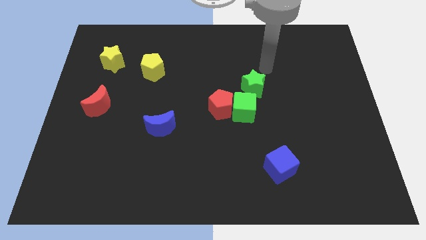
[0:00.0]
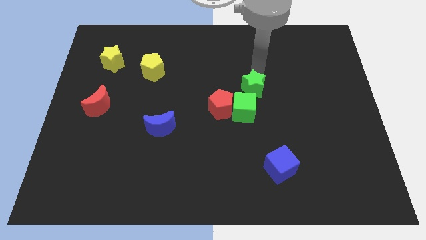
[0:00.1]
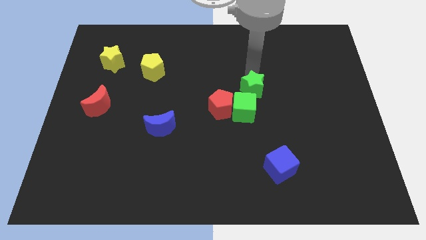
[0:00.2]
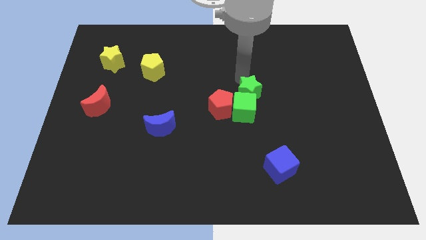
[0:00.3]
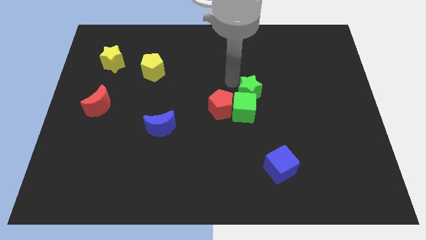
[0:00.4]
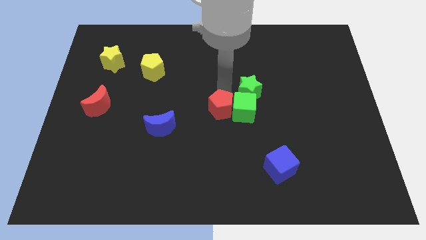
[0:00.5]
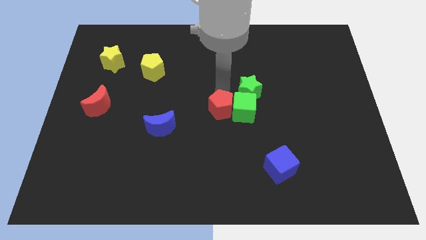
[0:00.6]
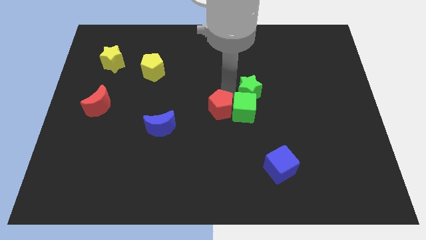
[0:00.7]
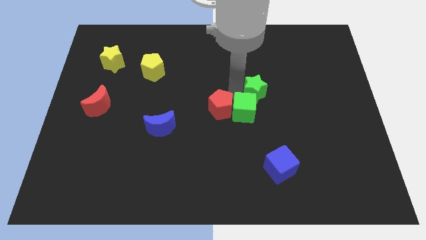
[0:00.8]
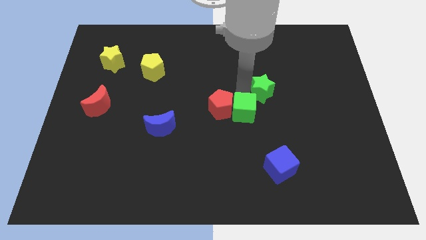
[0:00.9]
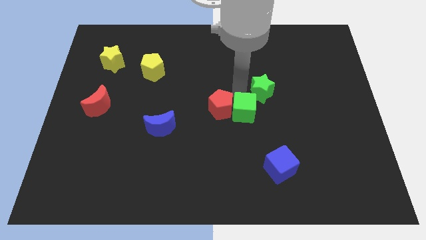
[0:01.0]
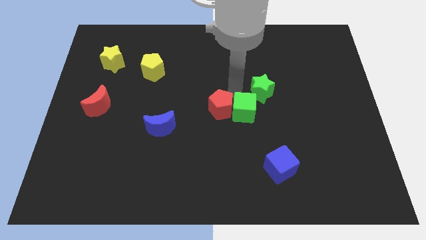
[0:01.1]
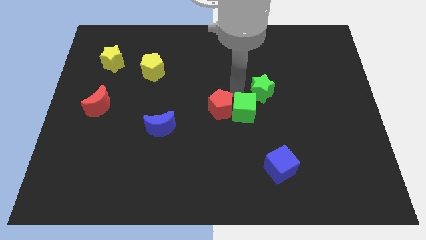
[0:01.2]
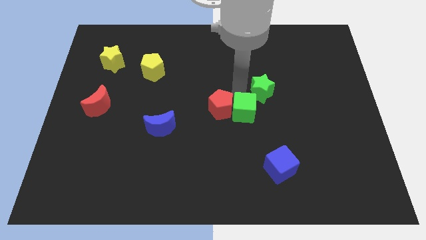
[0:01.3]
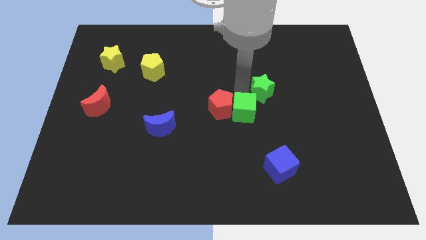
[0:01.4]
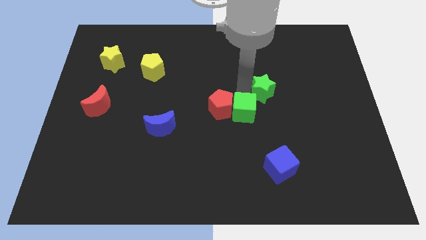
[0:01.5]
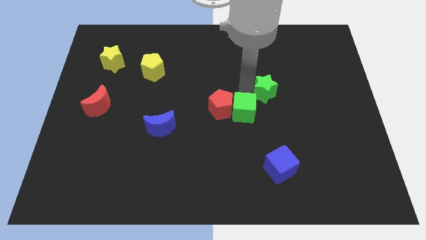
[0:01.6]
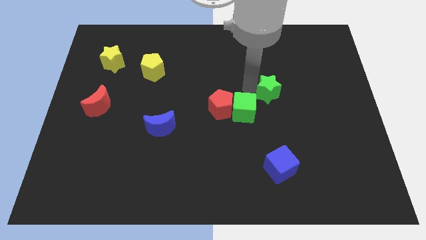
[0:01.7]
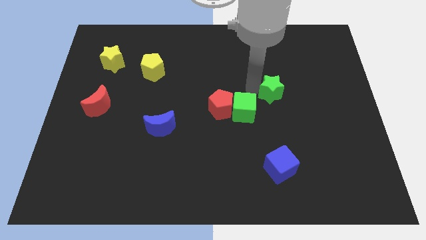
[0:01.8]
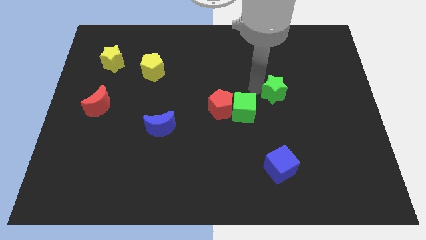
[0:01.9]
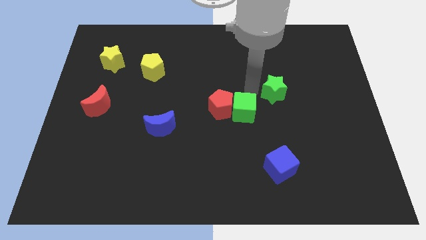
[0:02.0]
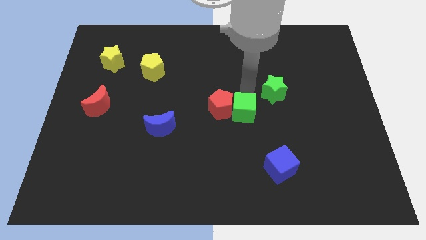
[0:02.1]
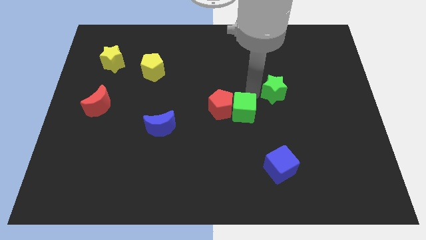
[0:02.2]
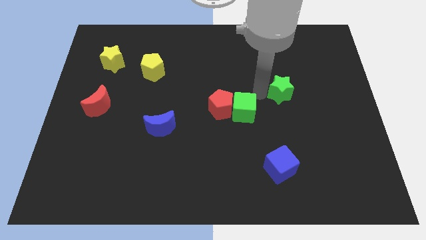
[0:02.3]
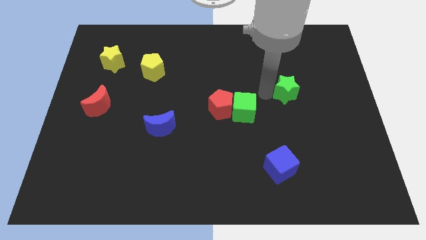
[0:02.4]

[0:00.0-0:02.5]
push the green star to the right somewhat

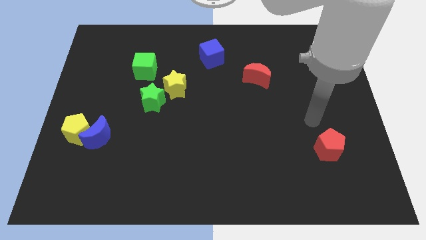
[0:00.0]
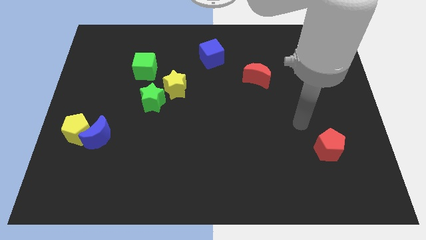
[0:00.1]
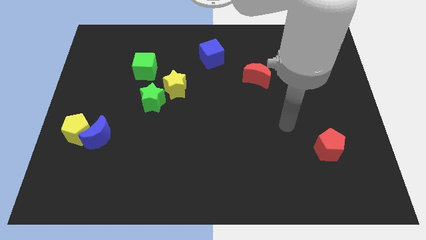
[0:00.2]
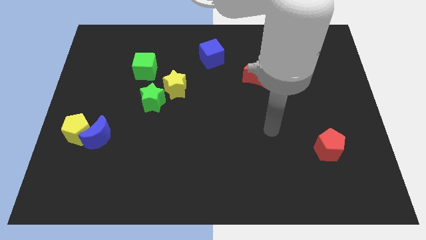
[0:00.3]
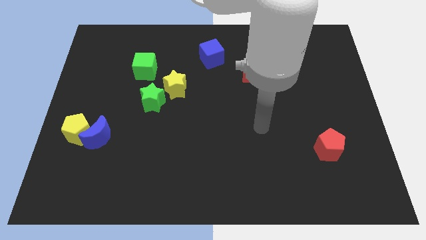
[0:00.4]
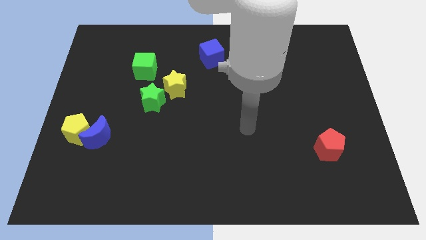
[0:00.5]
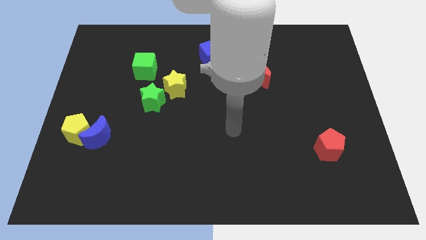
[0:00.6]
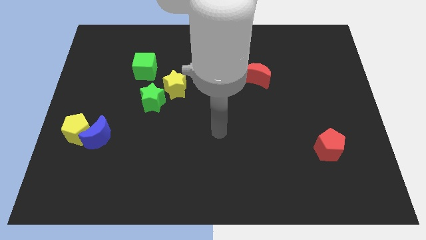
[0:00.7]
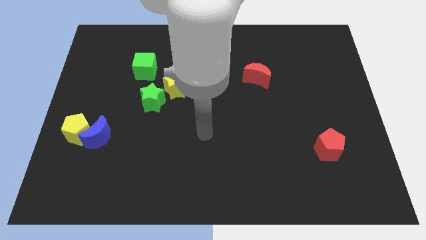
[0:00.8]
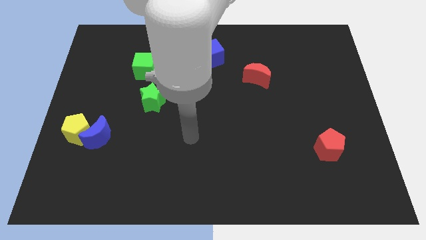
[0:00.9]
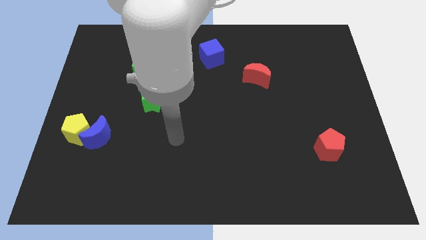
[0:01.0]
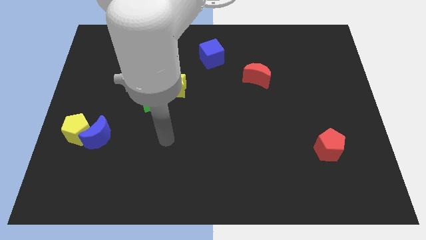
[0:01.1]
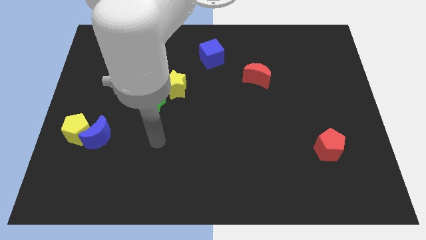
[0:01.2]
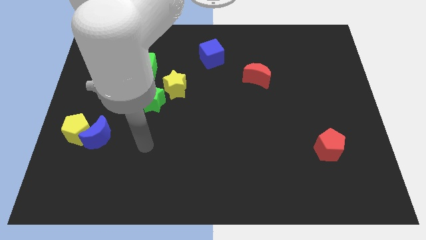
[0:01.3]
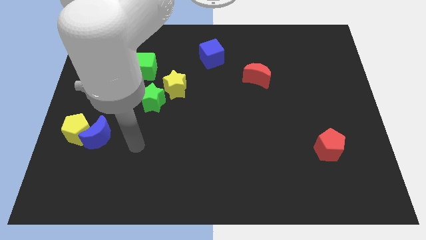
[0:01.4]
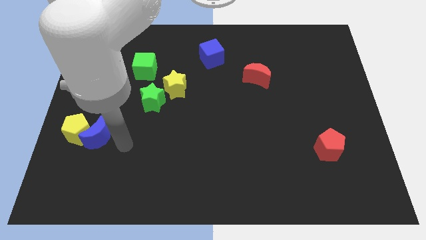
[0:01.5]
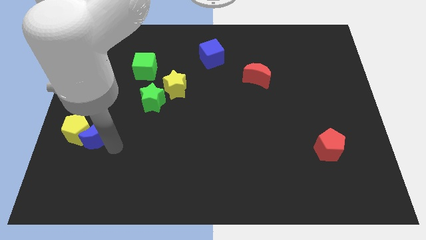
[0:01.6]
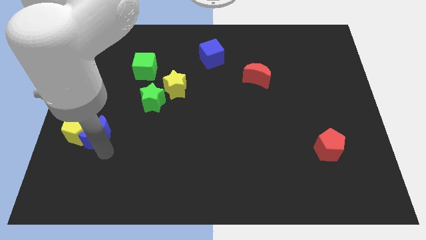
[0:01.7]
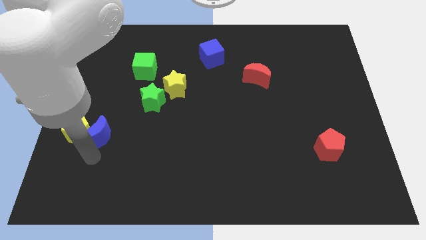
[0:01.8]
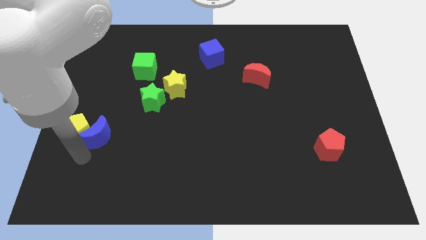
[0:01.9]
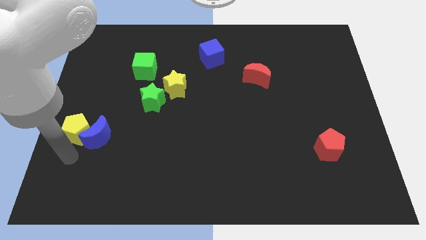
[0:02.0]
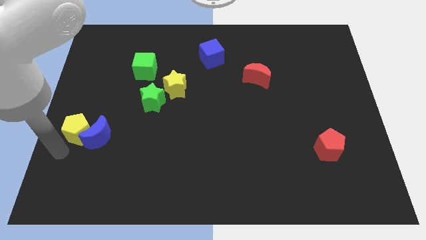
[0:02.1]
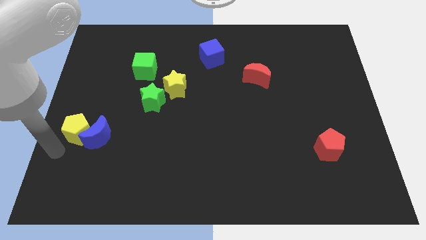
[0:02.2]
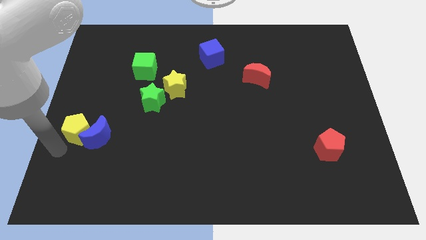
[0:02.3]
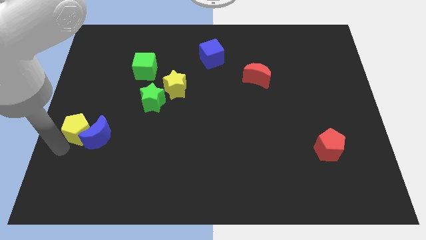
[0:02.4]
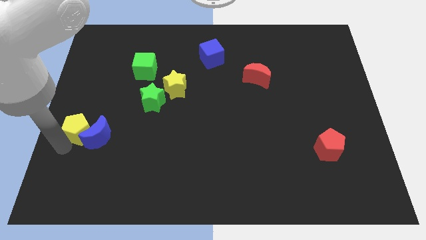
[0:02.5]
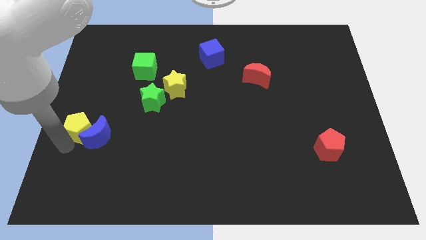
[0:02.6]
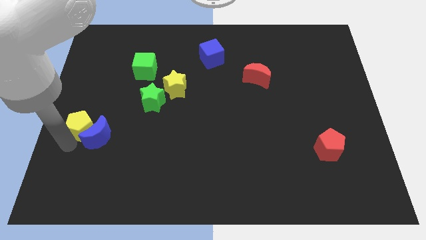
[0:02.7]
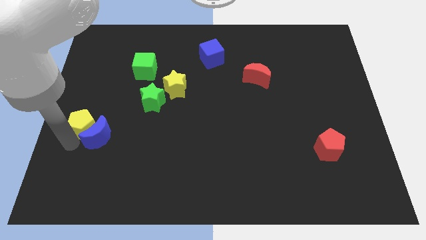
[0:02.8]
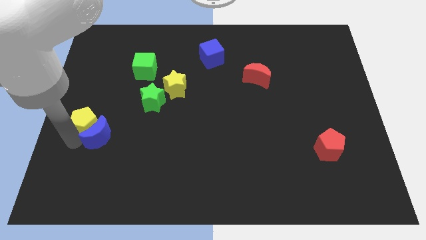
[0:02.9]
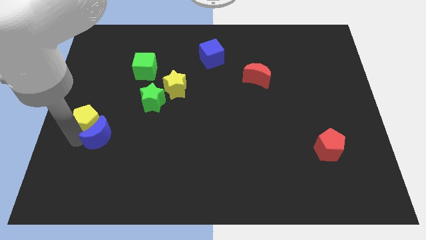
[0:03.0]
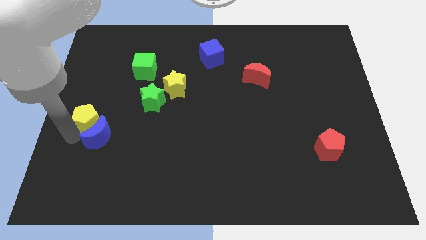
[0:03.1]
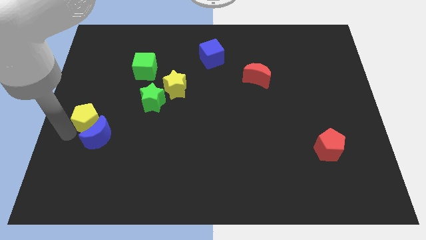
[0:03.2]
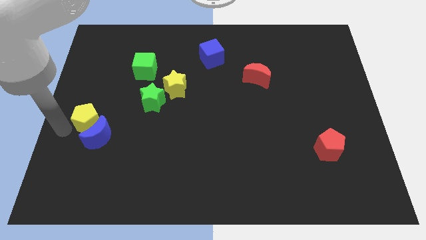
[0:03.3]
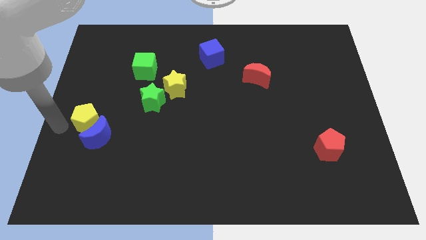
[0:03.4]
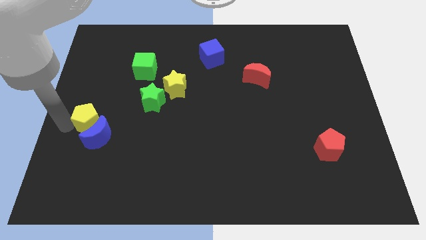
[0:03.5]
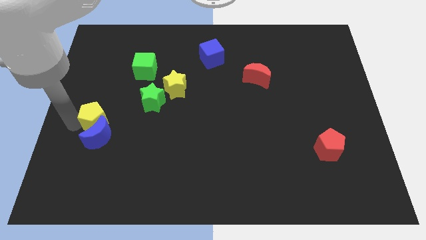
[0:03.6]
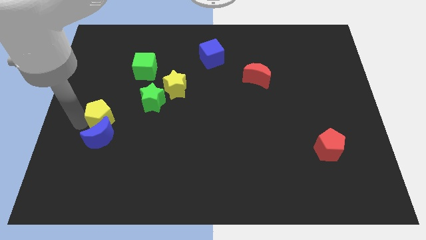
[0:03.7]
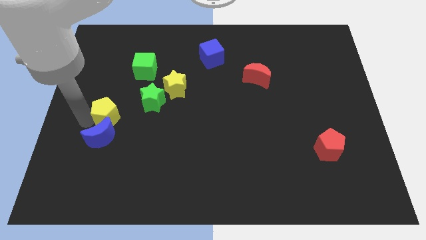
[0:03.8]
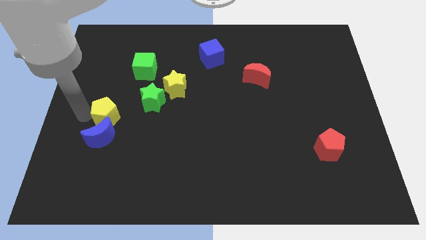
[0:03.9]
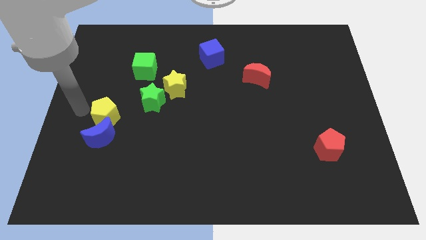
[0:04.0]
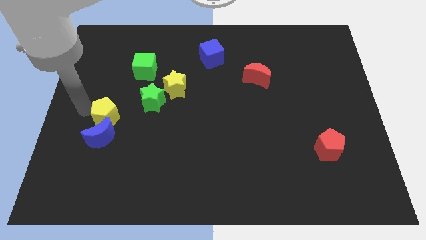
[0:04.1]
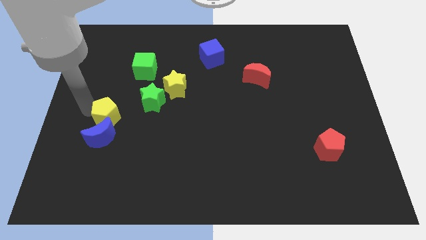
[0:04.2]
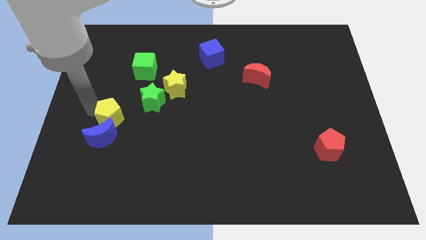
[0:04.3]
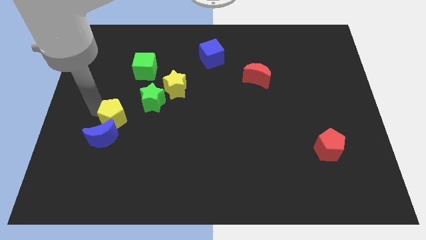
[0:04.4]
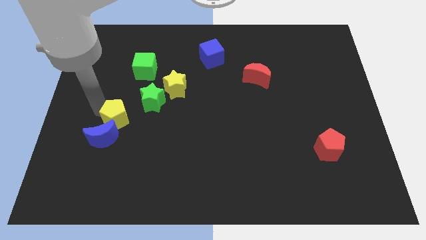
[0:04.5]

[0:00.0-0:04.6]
slightly slide the yellow pentagon to the right

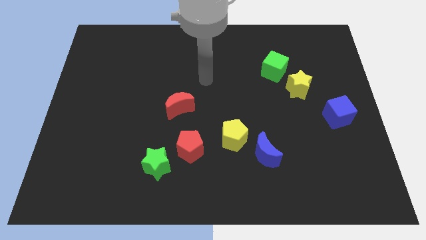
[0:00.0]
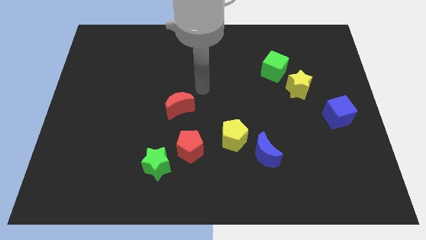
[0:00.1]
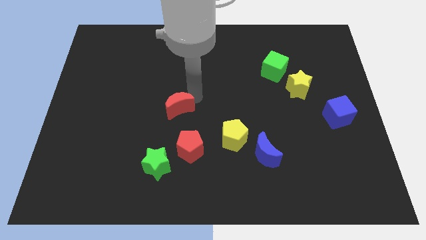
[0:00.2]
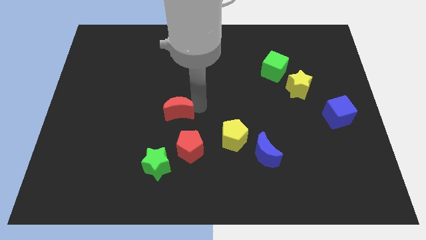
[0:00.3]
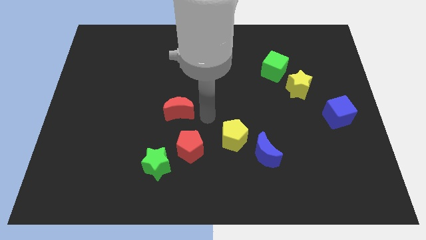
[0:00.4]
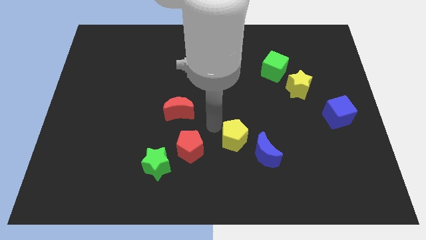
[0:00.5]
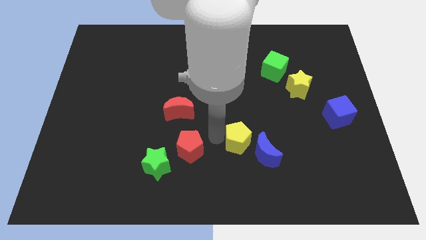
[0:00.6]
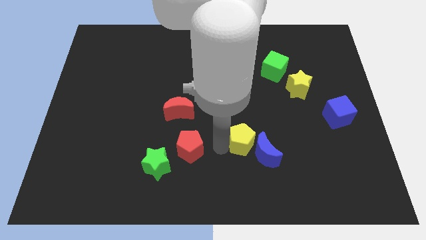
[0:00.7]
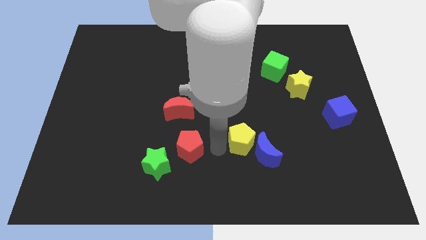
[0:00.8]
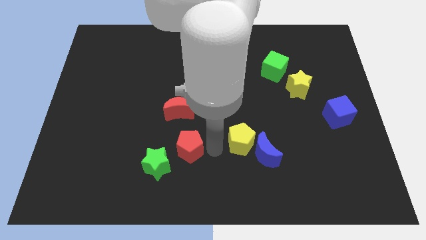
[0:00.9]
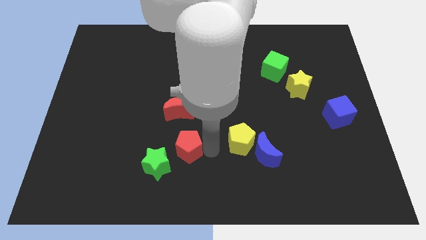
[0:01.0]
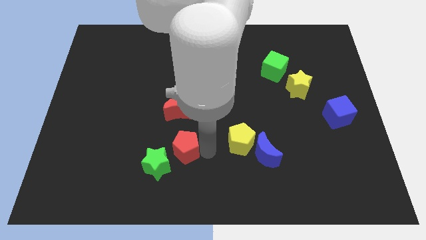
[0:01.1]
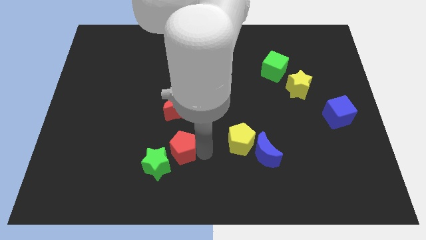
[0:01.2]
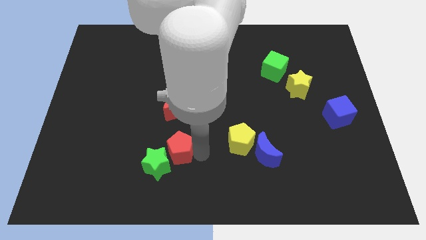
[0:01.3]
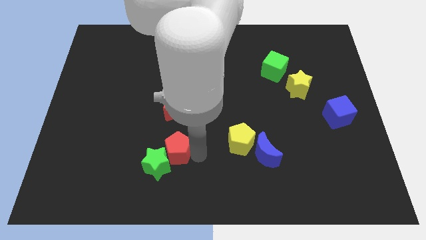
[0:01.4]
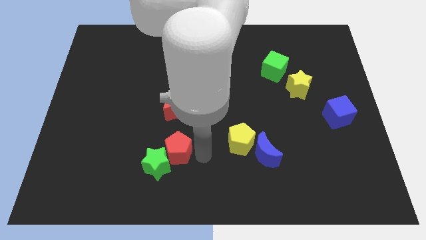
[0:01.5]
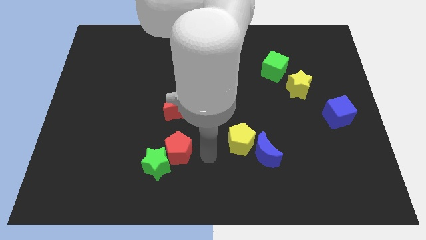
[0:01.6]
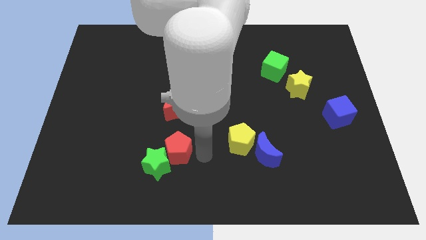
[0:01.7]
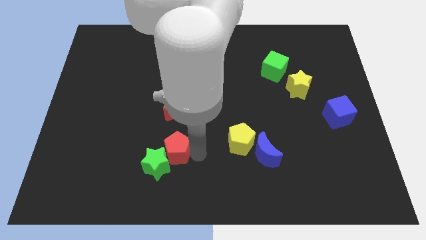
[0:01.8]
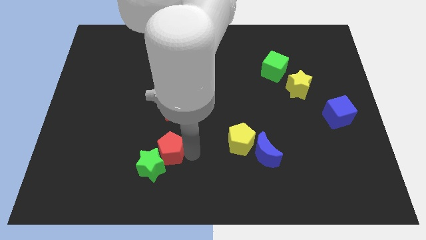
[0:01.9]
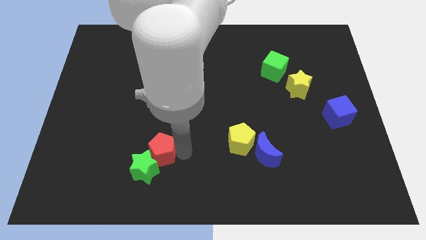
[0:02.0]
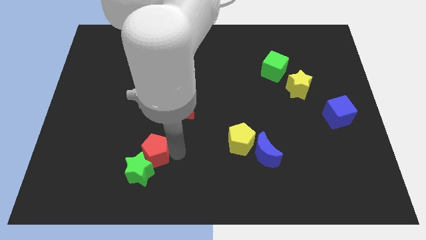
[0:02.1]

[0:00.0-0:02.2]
slightly push the red pentagon to the left
